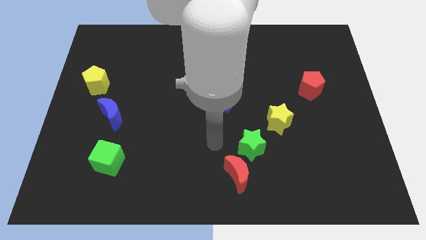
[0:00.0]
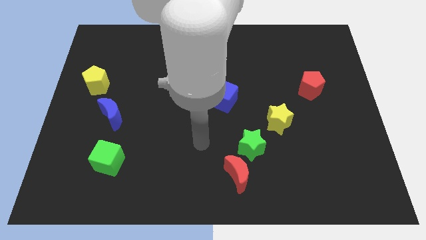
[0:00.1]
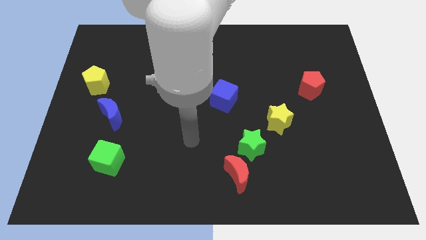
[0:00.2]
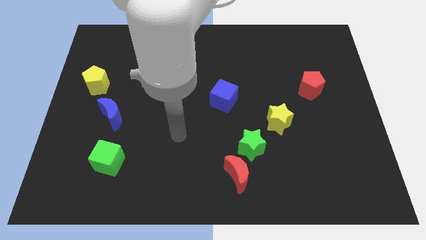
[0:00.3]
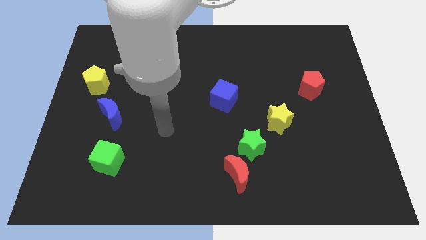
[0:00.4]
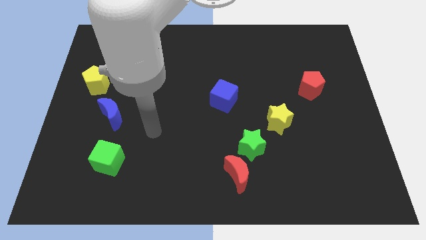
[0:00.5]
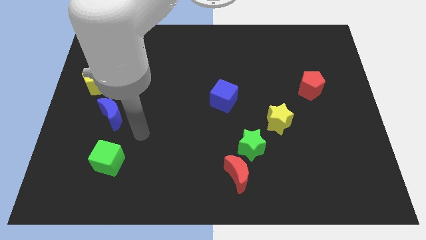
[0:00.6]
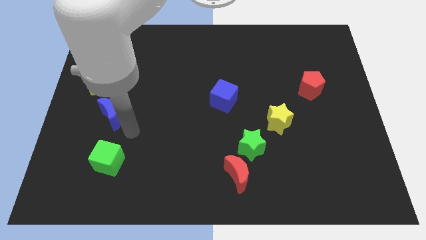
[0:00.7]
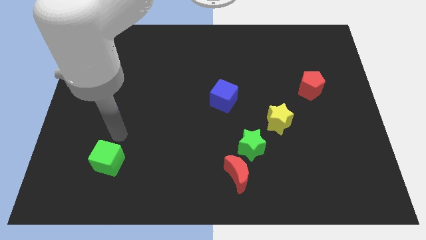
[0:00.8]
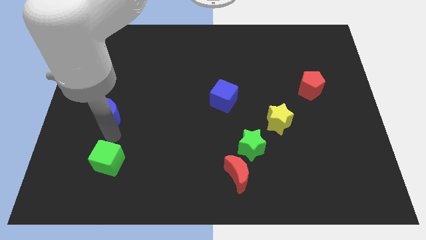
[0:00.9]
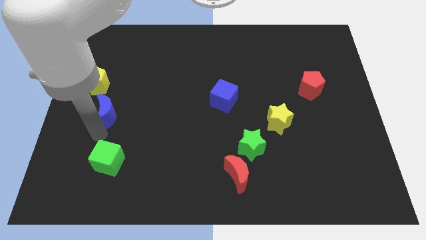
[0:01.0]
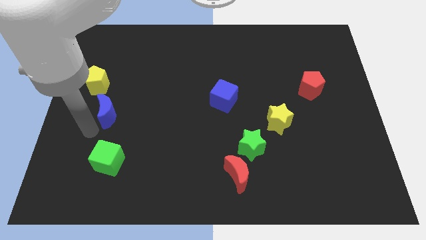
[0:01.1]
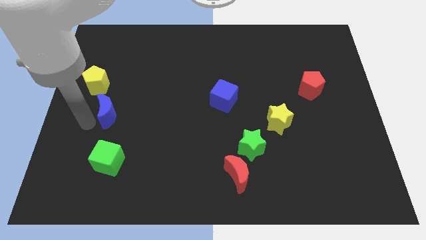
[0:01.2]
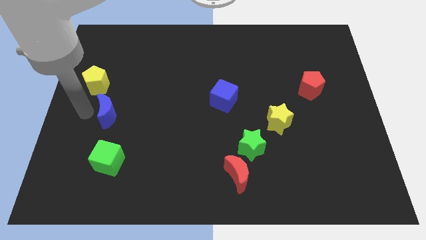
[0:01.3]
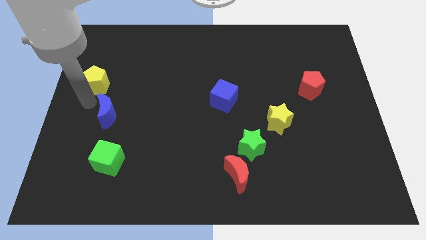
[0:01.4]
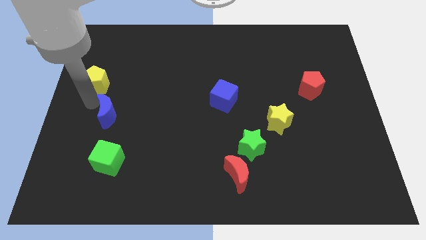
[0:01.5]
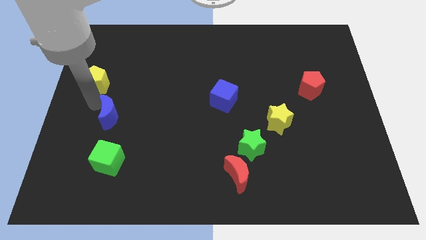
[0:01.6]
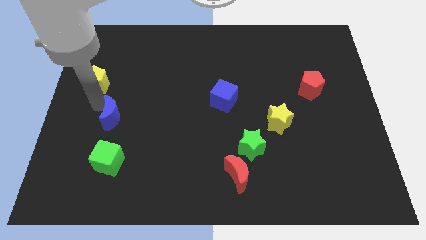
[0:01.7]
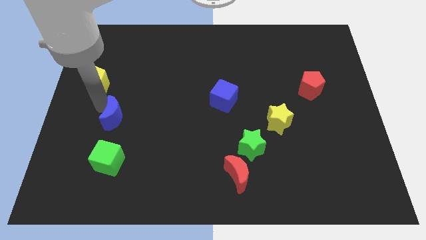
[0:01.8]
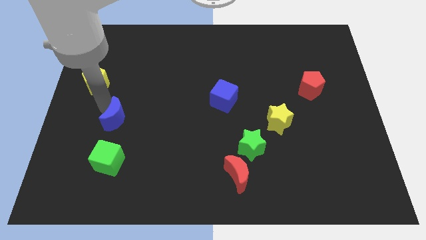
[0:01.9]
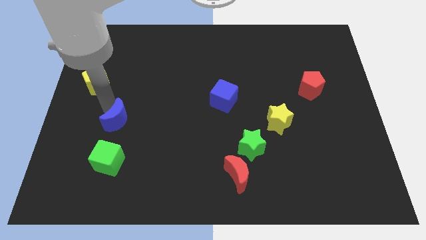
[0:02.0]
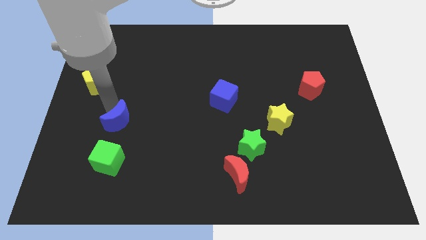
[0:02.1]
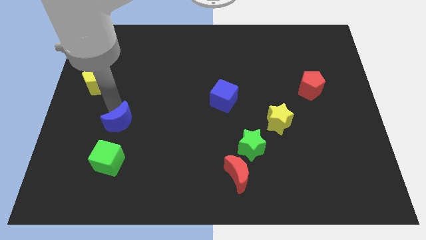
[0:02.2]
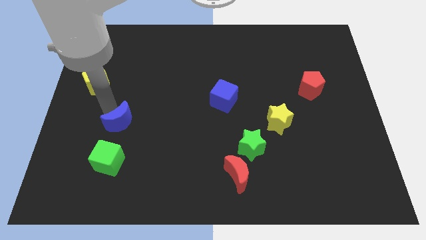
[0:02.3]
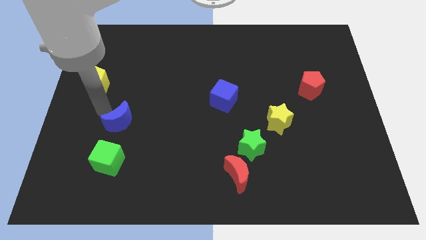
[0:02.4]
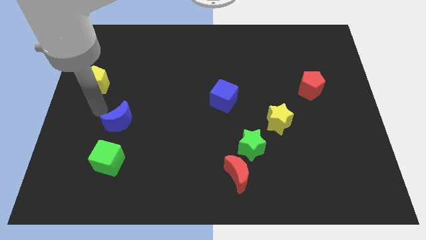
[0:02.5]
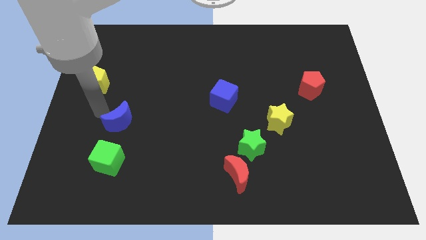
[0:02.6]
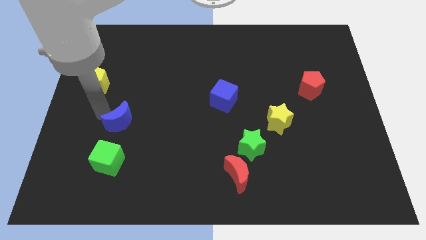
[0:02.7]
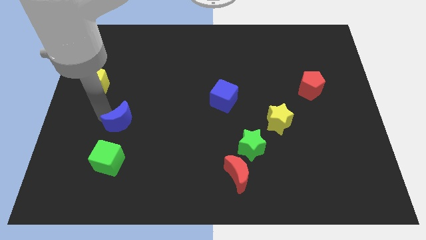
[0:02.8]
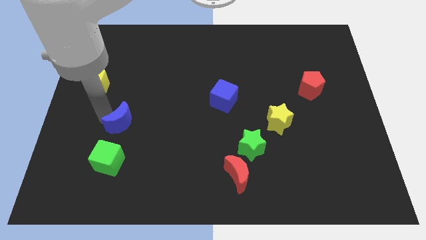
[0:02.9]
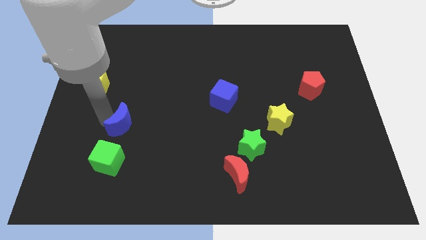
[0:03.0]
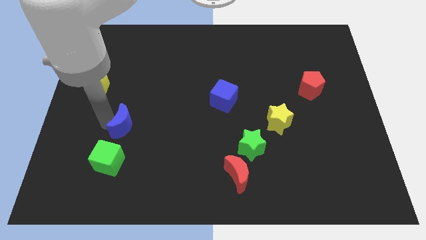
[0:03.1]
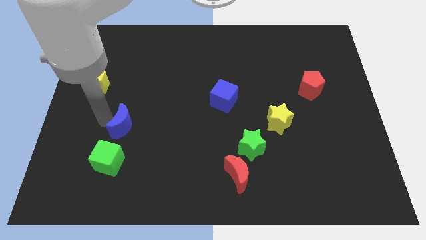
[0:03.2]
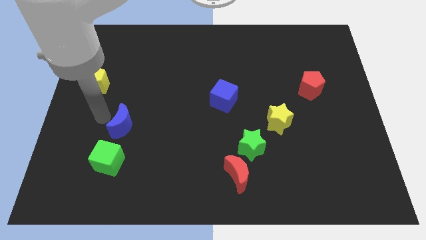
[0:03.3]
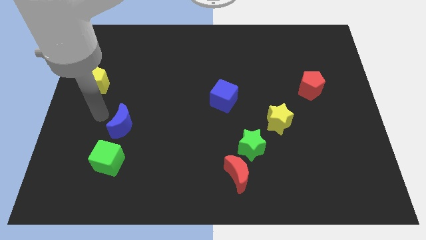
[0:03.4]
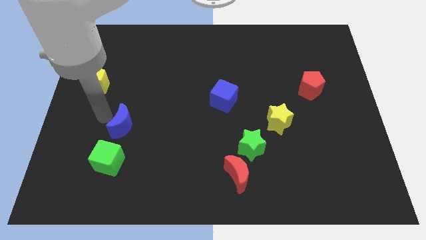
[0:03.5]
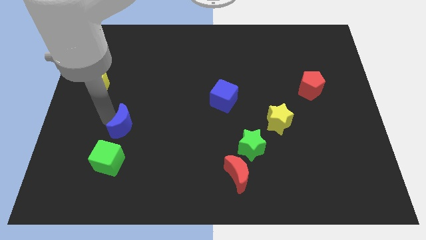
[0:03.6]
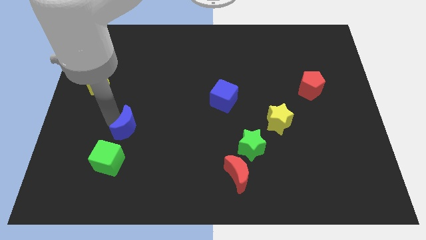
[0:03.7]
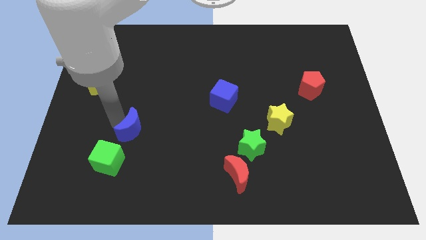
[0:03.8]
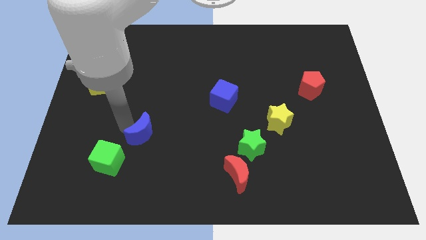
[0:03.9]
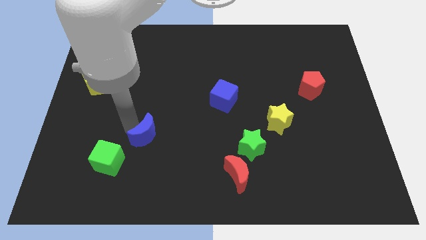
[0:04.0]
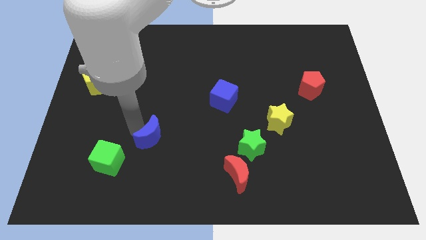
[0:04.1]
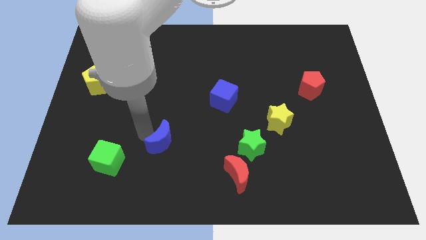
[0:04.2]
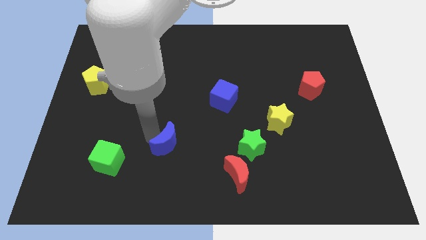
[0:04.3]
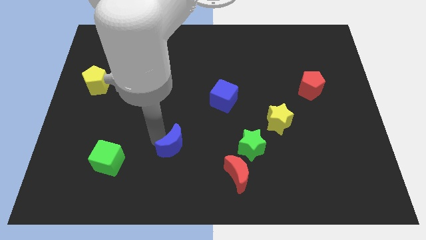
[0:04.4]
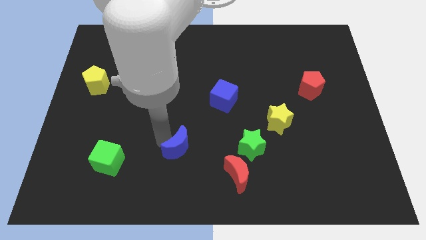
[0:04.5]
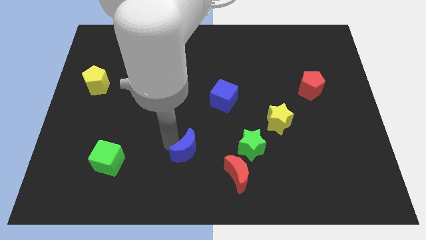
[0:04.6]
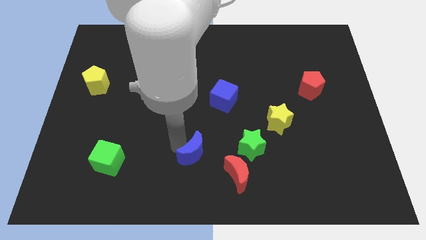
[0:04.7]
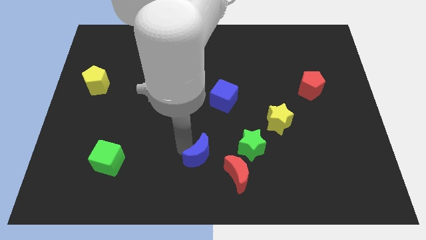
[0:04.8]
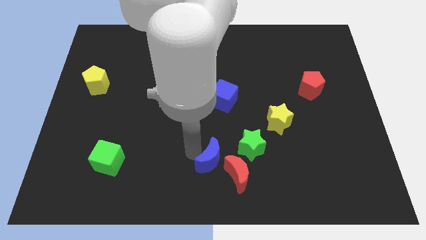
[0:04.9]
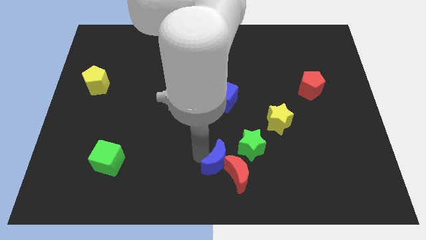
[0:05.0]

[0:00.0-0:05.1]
push the blue moon towards the red moon
